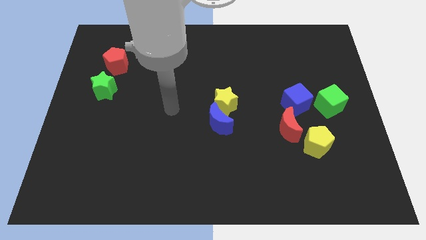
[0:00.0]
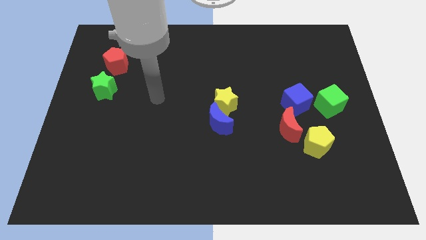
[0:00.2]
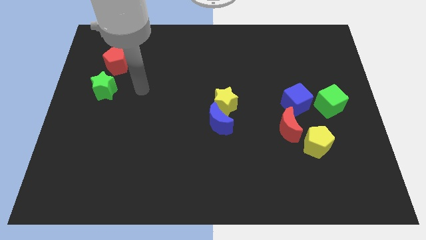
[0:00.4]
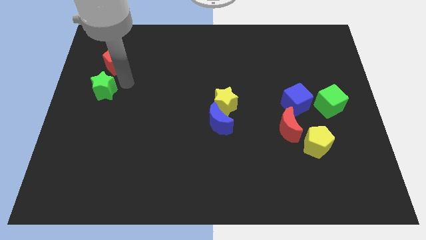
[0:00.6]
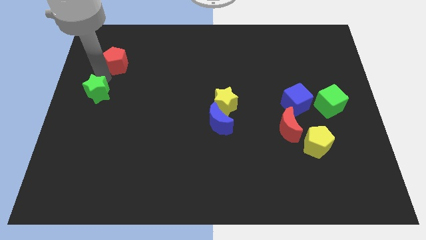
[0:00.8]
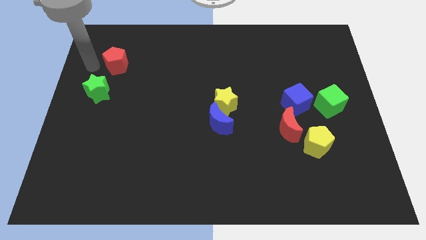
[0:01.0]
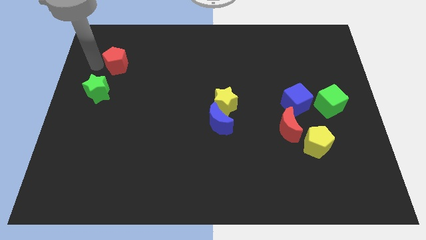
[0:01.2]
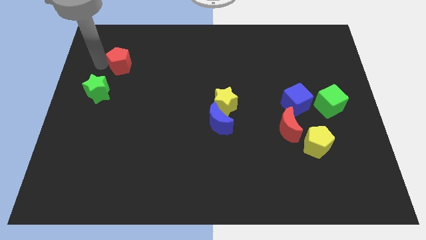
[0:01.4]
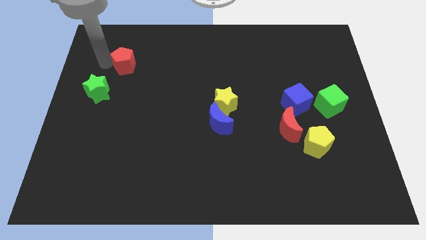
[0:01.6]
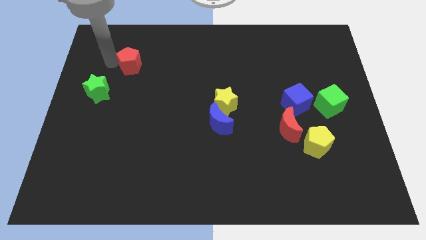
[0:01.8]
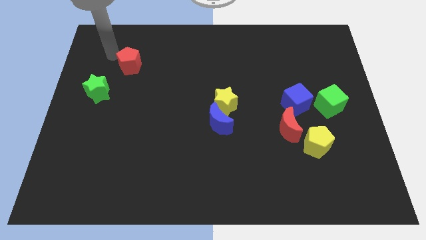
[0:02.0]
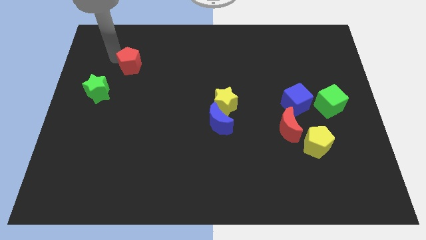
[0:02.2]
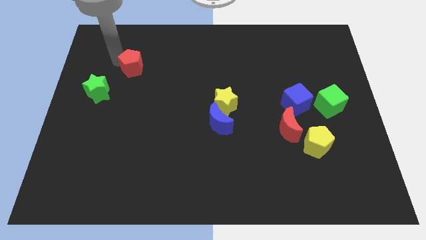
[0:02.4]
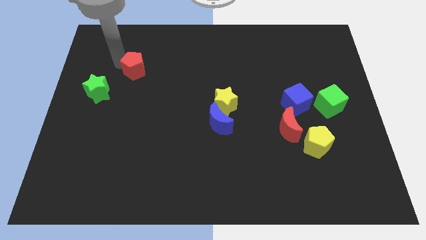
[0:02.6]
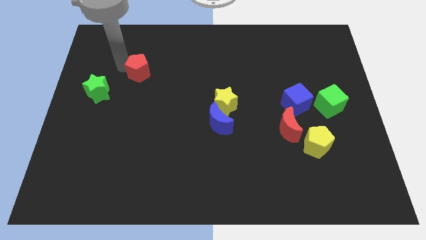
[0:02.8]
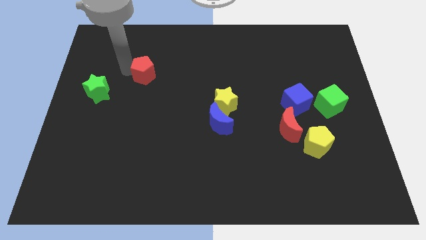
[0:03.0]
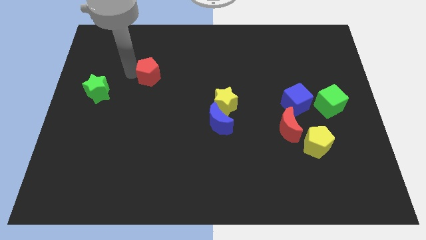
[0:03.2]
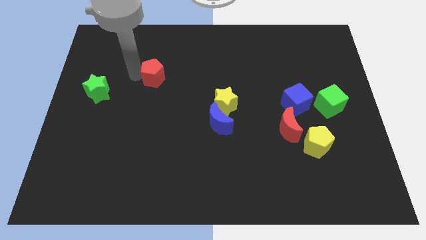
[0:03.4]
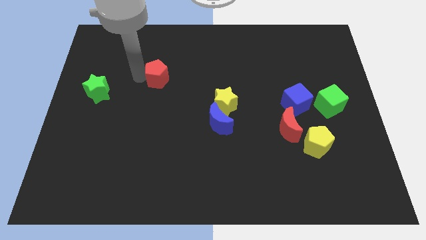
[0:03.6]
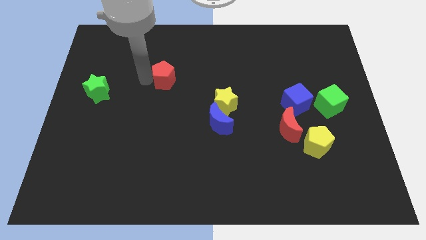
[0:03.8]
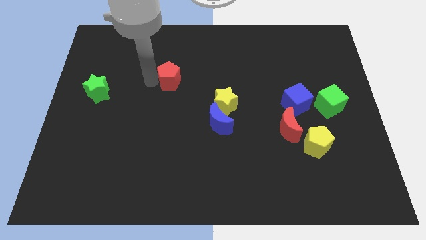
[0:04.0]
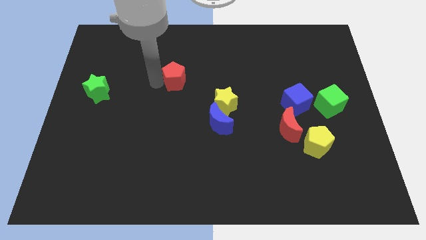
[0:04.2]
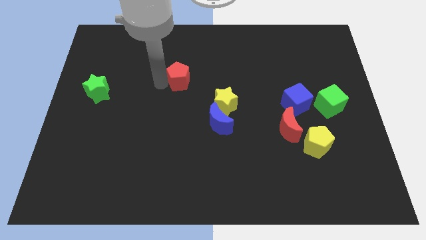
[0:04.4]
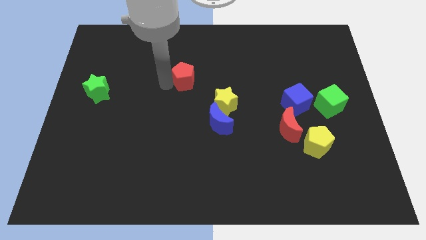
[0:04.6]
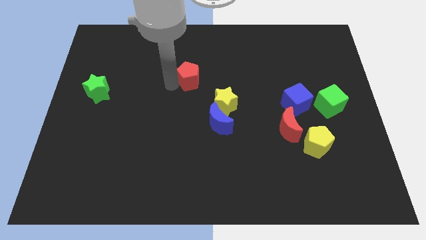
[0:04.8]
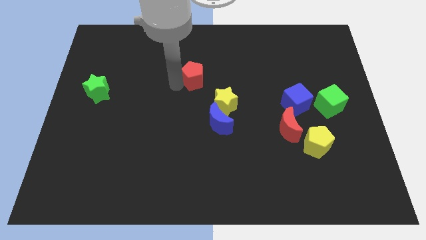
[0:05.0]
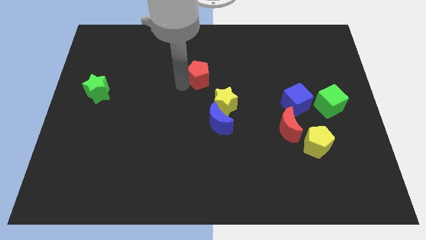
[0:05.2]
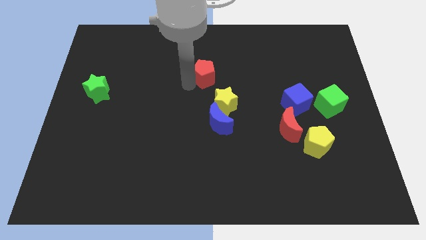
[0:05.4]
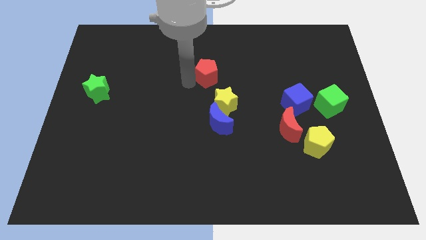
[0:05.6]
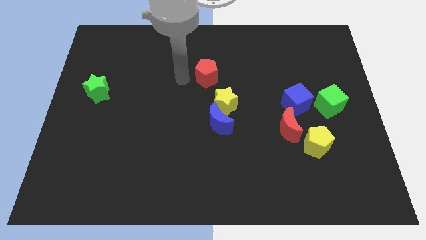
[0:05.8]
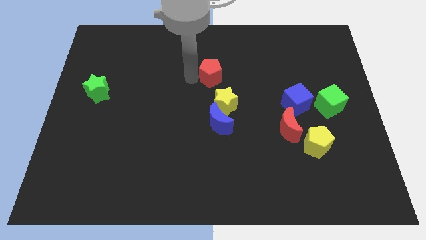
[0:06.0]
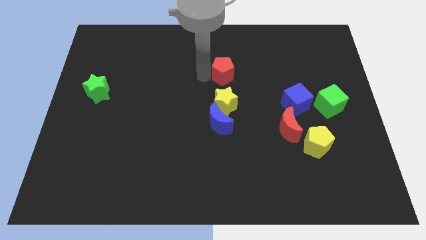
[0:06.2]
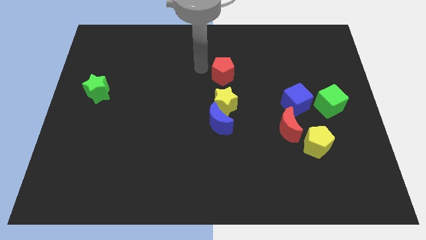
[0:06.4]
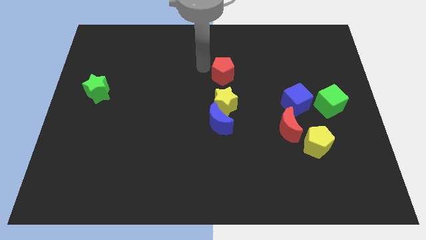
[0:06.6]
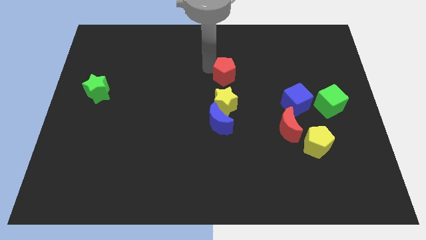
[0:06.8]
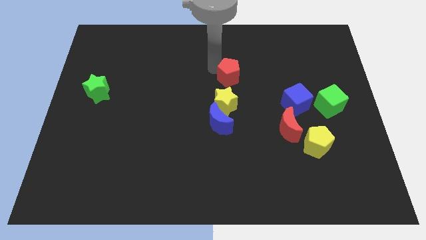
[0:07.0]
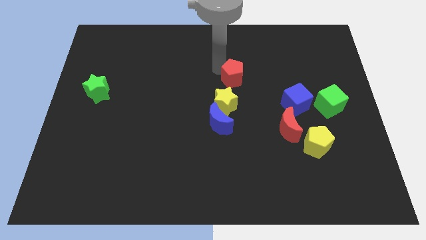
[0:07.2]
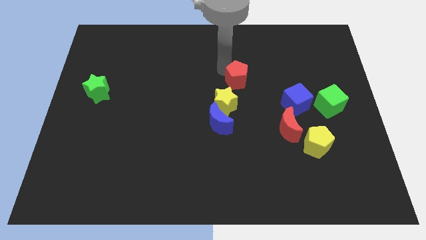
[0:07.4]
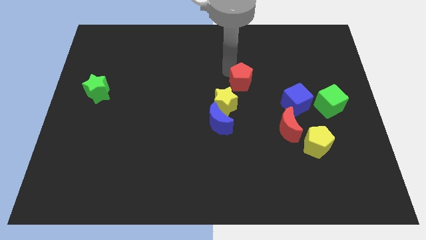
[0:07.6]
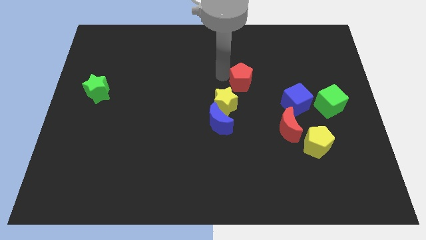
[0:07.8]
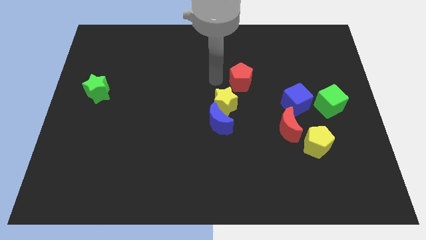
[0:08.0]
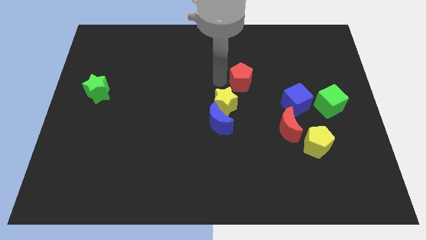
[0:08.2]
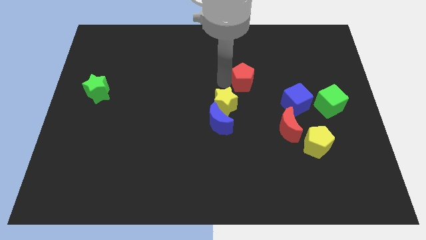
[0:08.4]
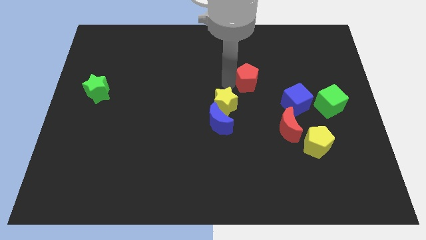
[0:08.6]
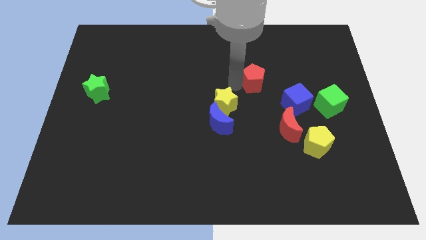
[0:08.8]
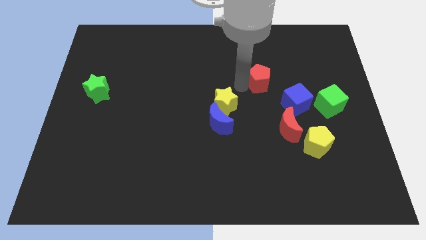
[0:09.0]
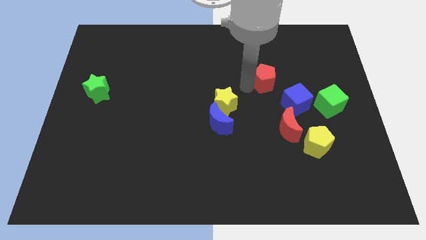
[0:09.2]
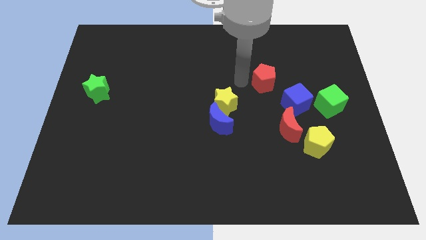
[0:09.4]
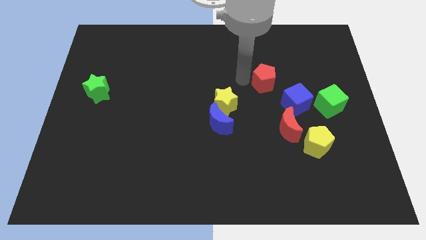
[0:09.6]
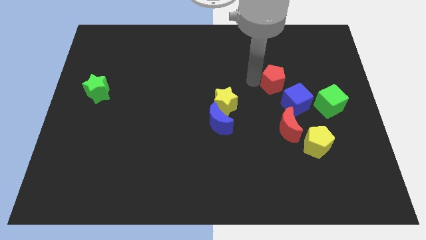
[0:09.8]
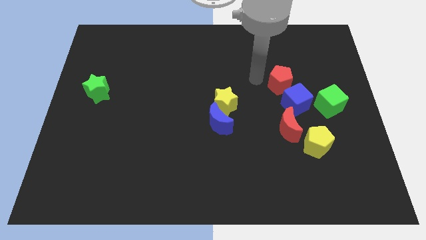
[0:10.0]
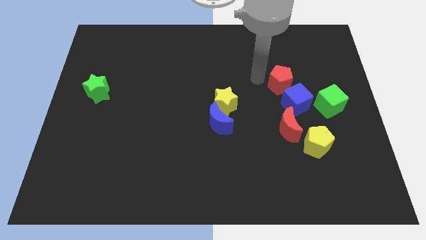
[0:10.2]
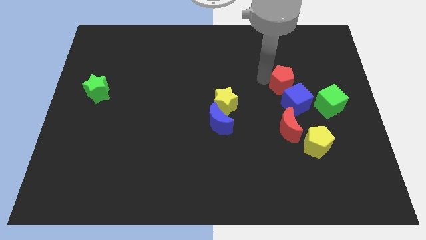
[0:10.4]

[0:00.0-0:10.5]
push the red pentagon to the top left side of the green cube

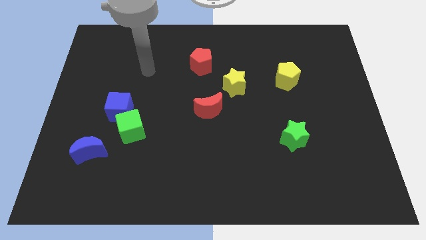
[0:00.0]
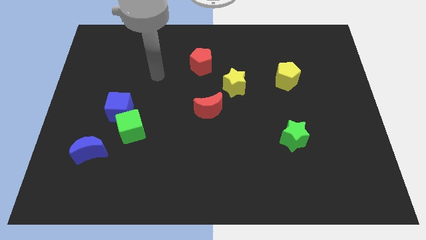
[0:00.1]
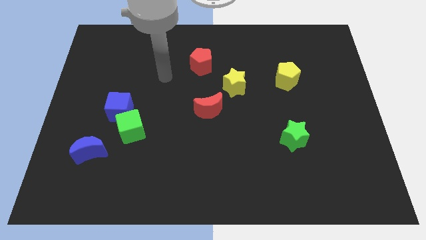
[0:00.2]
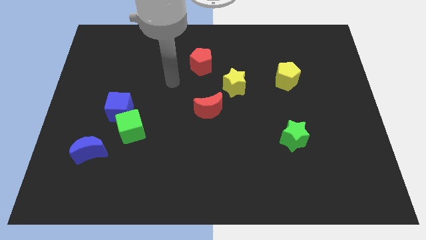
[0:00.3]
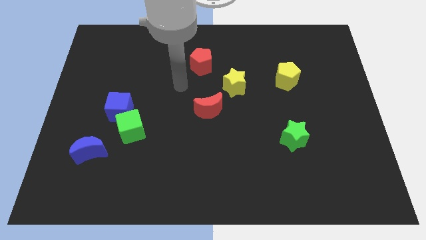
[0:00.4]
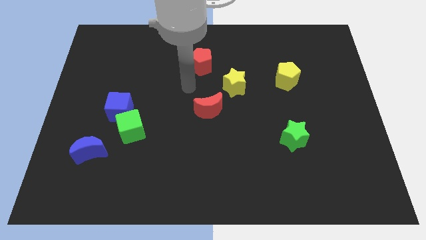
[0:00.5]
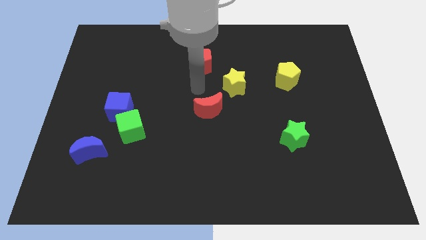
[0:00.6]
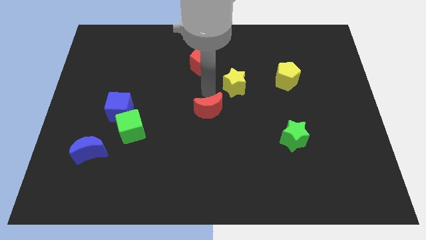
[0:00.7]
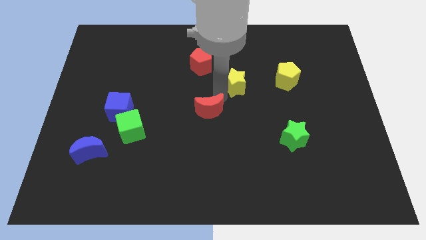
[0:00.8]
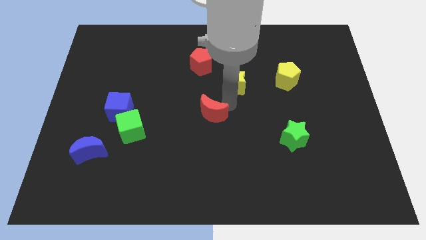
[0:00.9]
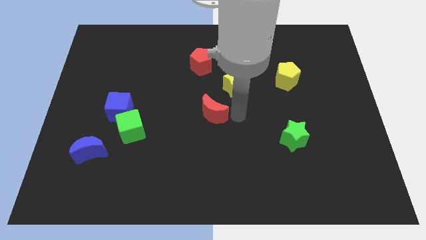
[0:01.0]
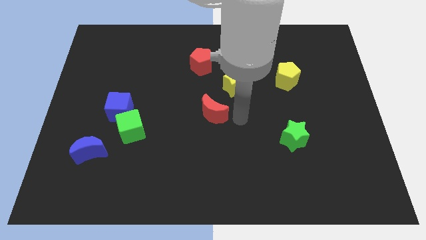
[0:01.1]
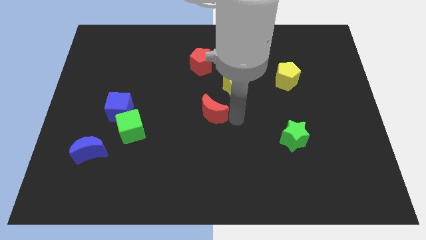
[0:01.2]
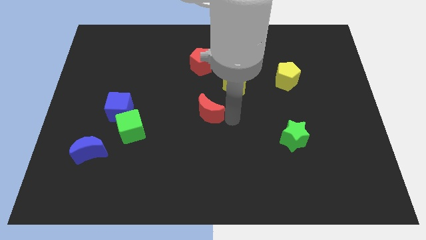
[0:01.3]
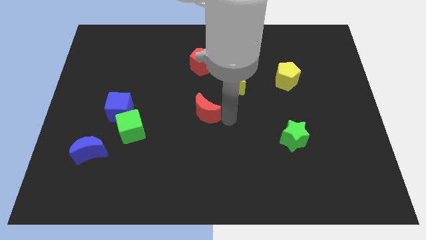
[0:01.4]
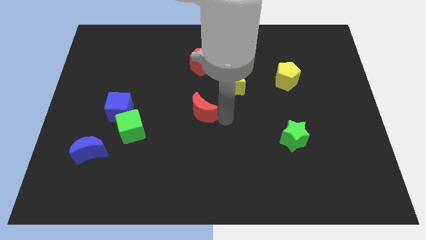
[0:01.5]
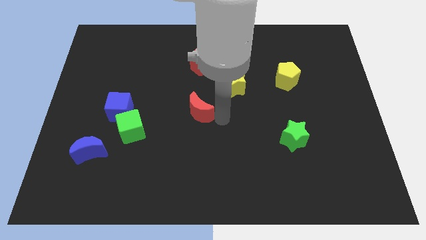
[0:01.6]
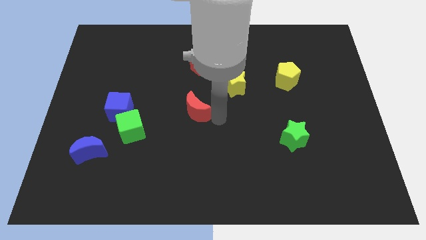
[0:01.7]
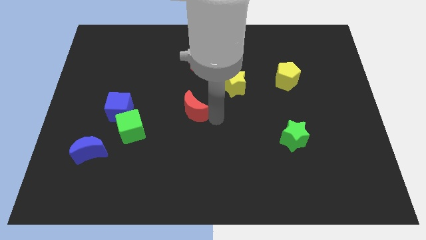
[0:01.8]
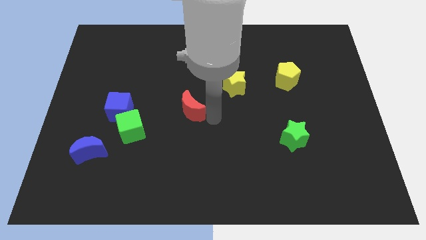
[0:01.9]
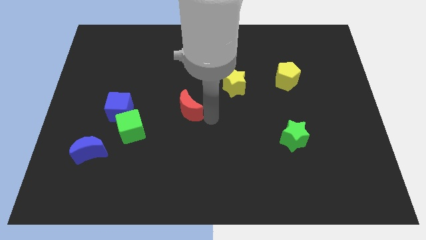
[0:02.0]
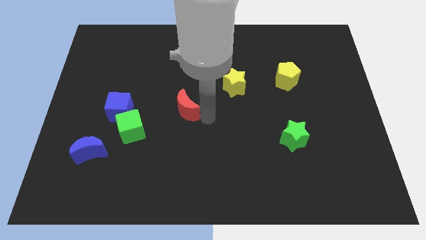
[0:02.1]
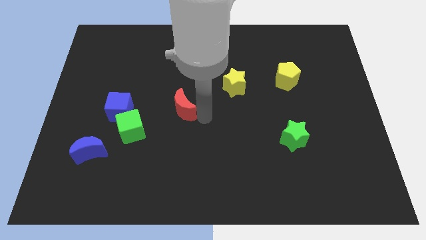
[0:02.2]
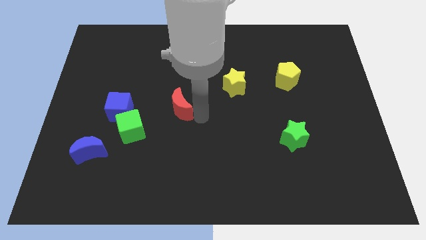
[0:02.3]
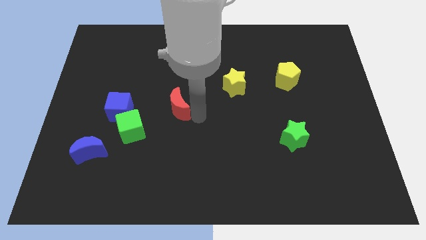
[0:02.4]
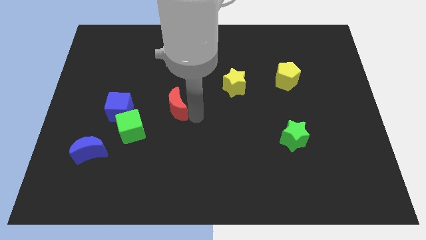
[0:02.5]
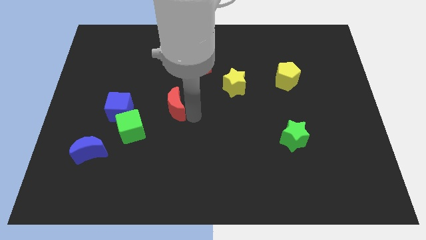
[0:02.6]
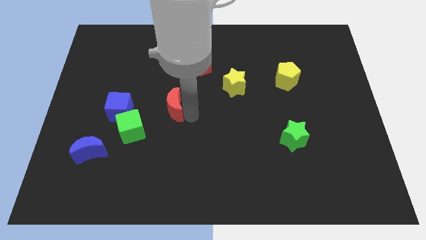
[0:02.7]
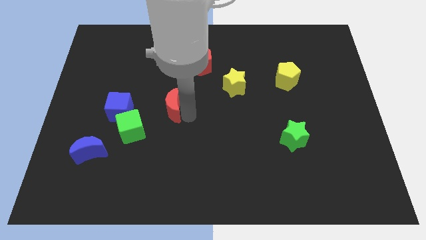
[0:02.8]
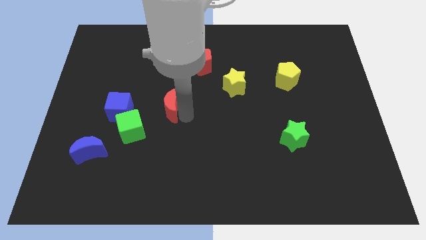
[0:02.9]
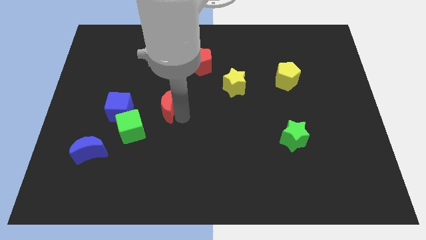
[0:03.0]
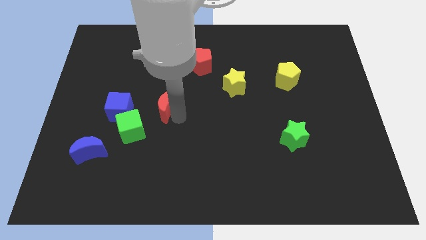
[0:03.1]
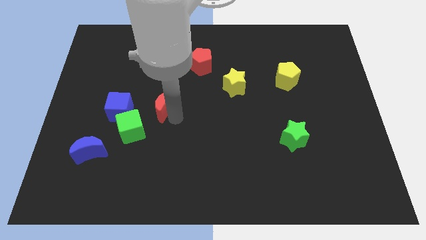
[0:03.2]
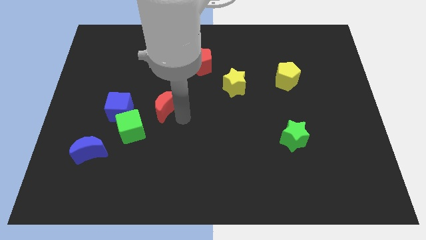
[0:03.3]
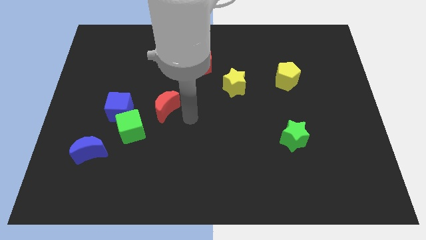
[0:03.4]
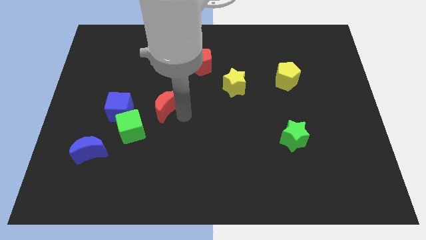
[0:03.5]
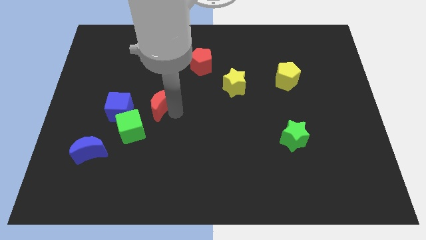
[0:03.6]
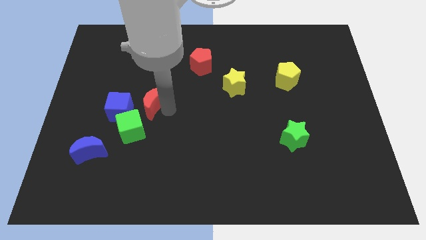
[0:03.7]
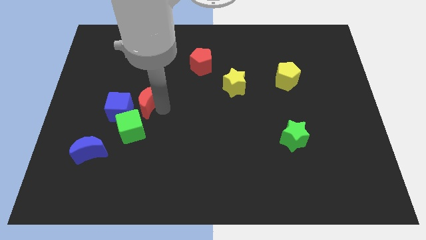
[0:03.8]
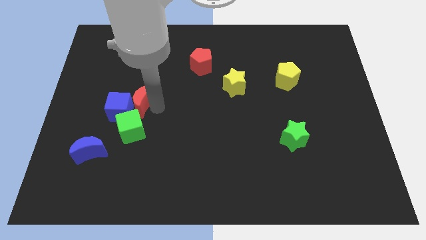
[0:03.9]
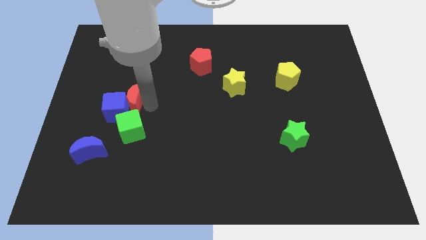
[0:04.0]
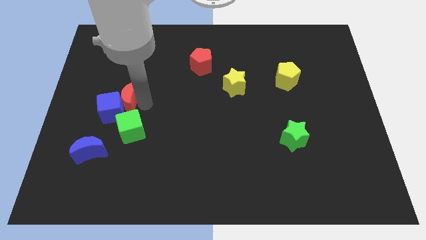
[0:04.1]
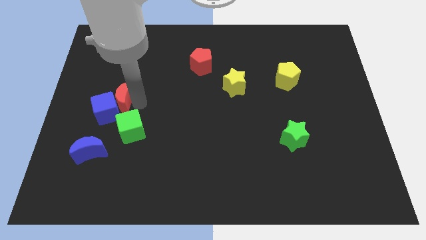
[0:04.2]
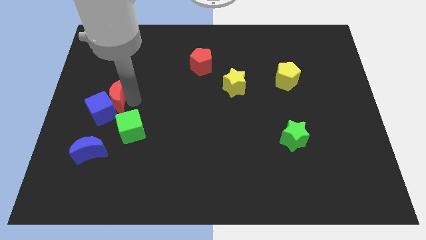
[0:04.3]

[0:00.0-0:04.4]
put the red moon above the blue moon
